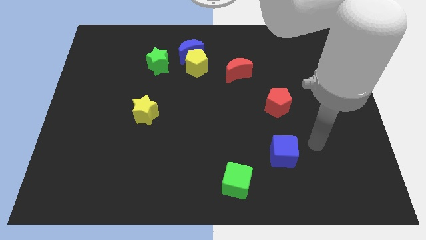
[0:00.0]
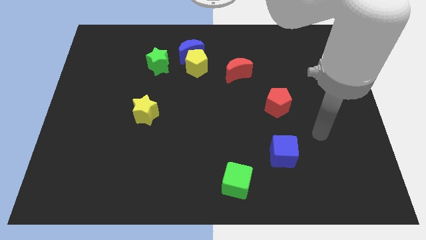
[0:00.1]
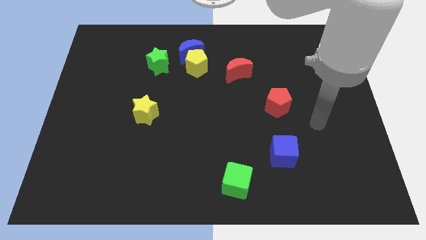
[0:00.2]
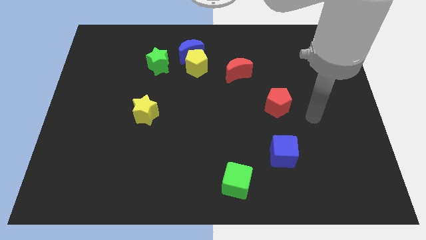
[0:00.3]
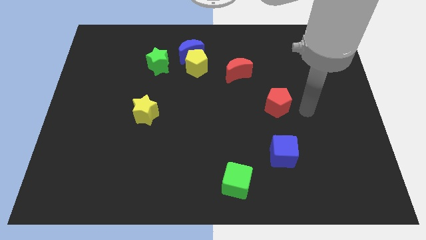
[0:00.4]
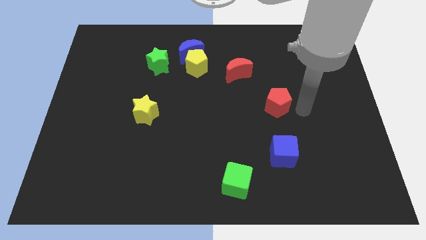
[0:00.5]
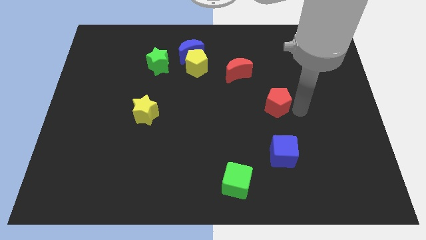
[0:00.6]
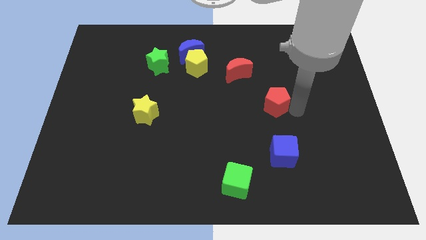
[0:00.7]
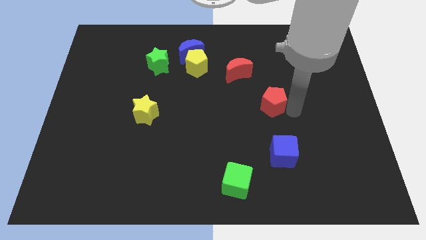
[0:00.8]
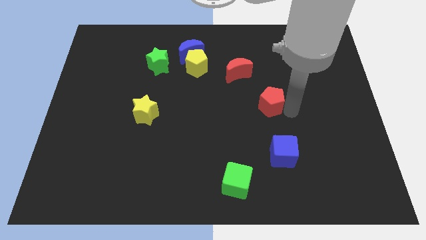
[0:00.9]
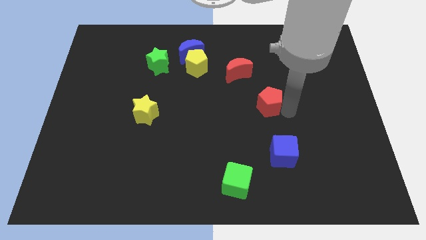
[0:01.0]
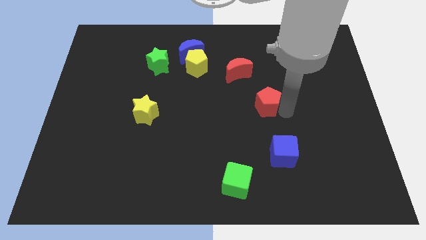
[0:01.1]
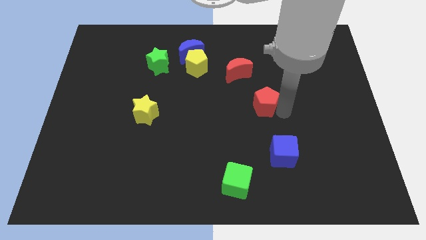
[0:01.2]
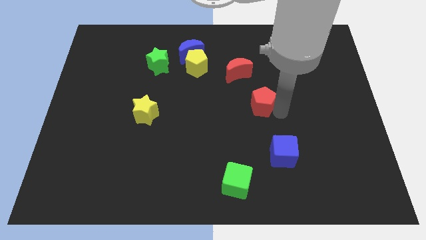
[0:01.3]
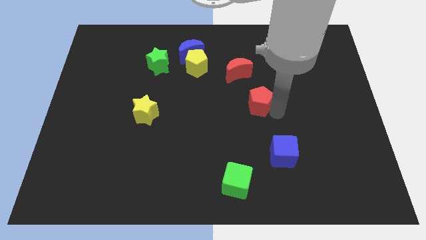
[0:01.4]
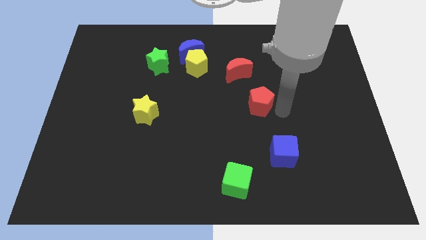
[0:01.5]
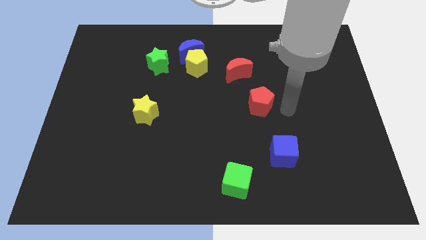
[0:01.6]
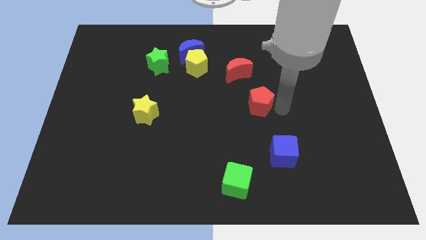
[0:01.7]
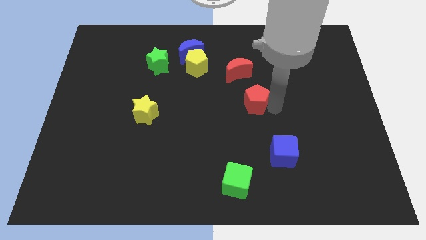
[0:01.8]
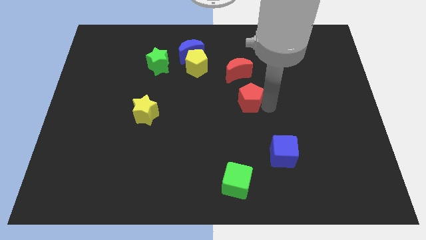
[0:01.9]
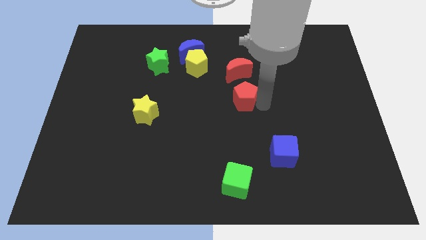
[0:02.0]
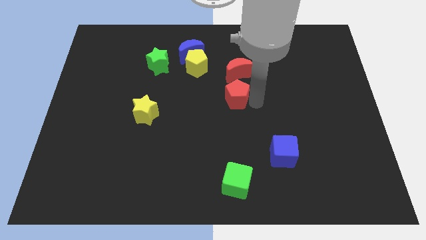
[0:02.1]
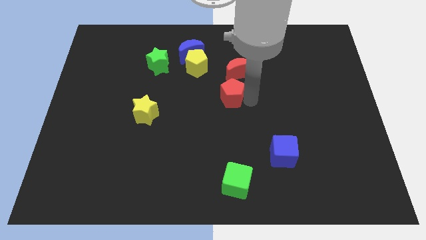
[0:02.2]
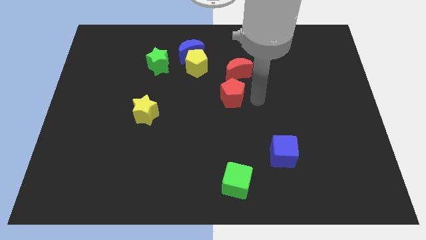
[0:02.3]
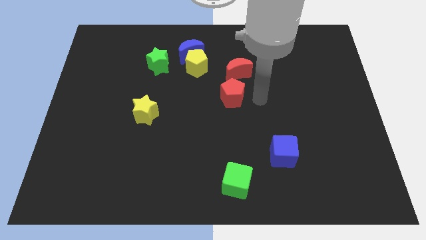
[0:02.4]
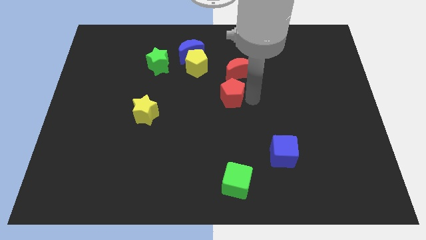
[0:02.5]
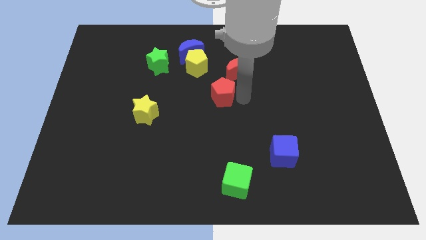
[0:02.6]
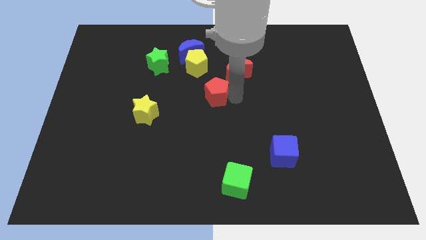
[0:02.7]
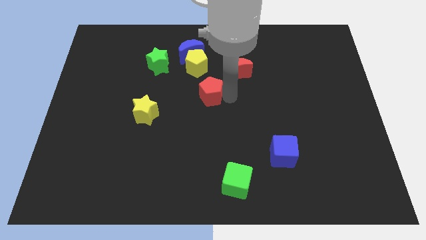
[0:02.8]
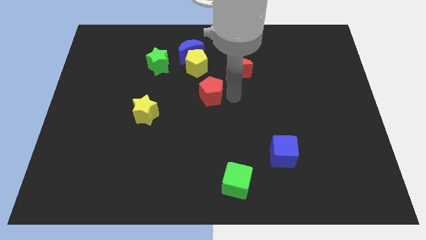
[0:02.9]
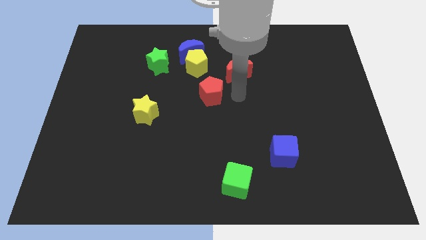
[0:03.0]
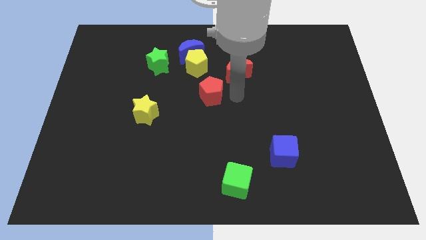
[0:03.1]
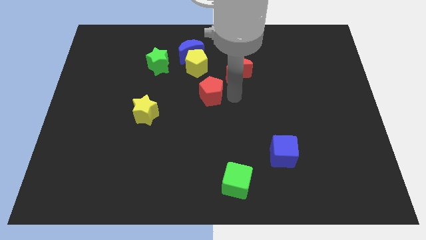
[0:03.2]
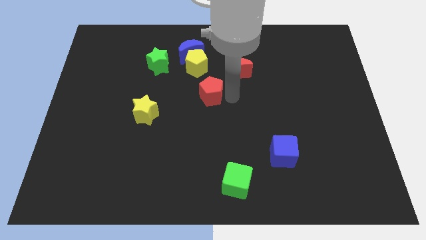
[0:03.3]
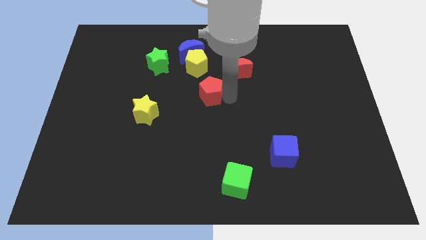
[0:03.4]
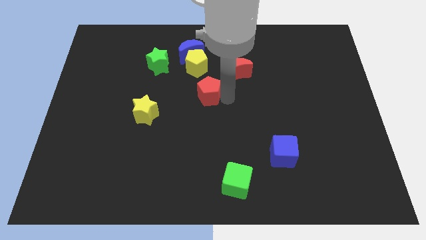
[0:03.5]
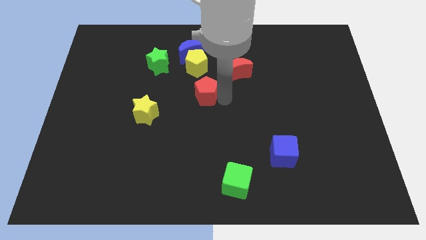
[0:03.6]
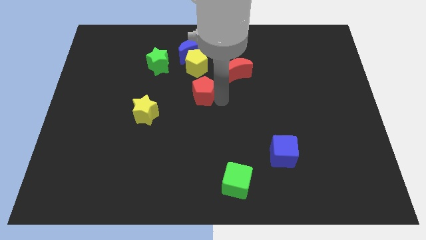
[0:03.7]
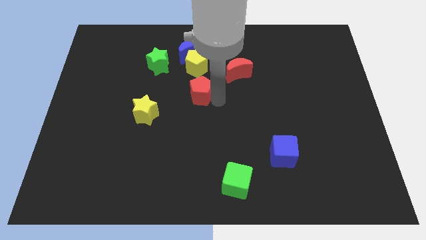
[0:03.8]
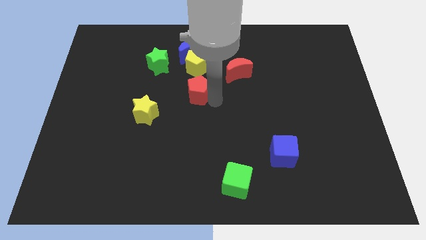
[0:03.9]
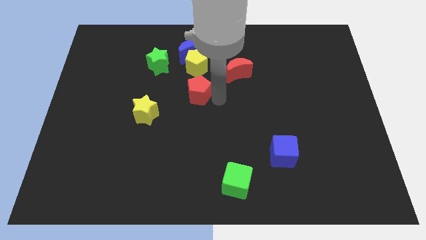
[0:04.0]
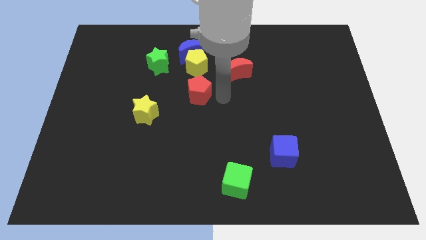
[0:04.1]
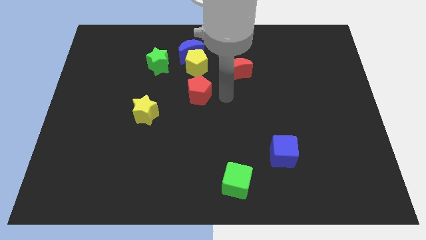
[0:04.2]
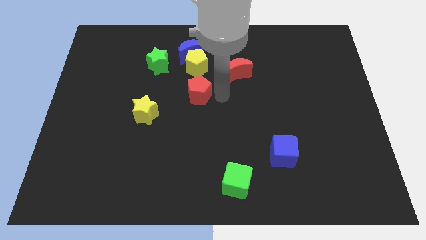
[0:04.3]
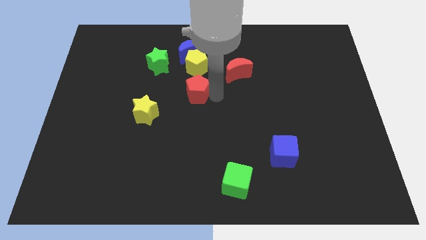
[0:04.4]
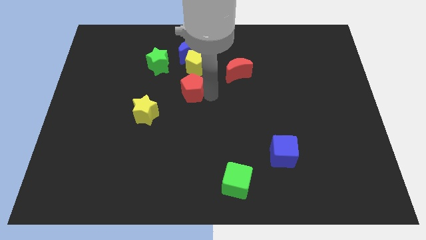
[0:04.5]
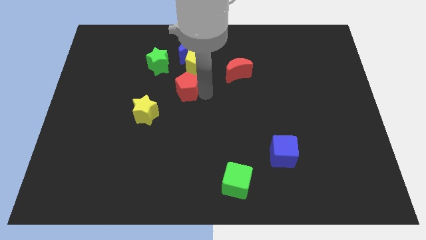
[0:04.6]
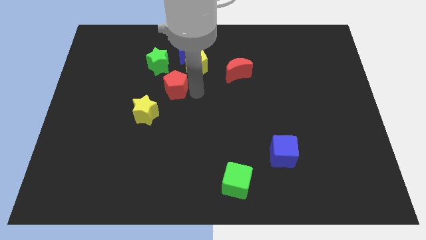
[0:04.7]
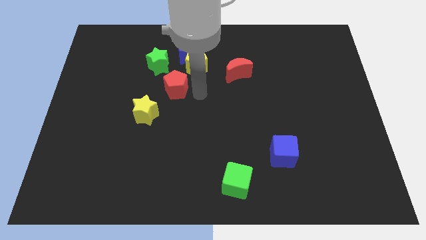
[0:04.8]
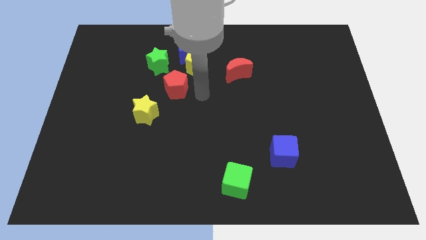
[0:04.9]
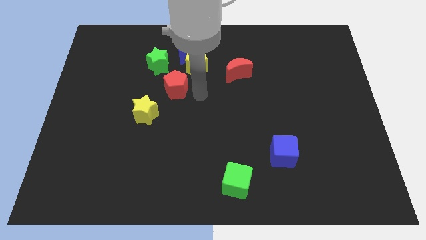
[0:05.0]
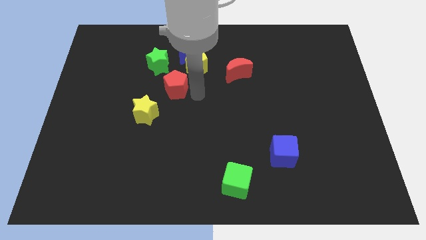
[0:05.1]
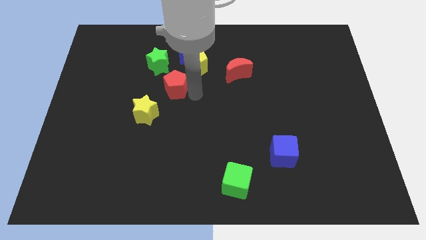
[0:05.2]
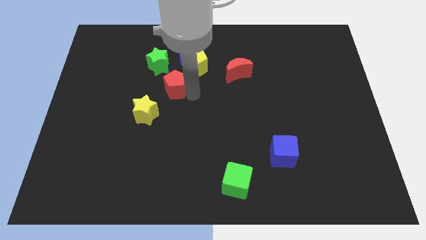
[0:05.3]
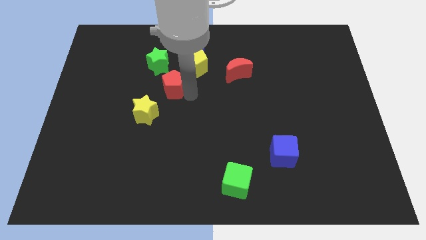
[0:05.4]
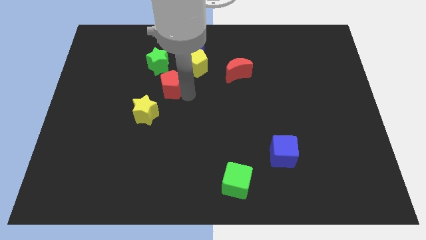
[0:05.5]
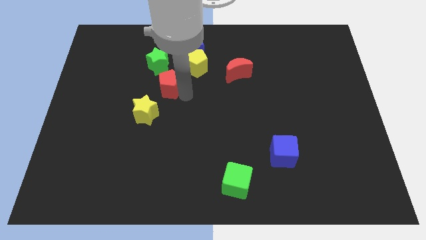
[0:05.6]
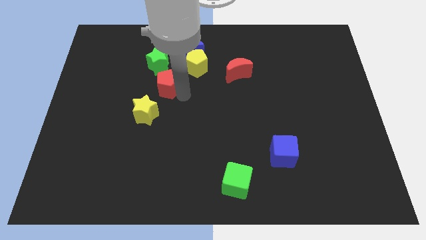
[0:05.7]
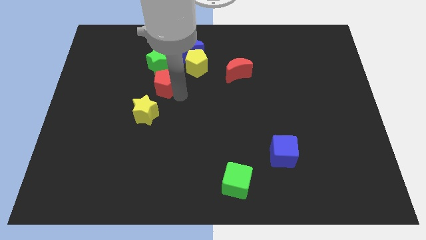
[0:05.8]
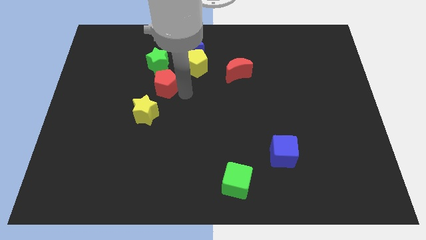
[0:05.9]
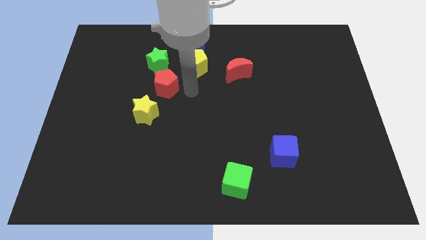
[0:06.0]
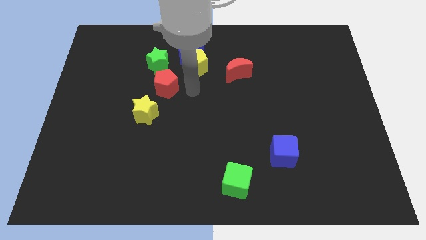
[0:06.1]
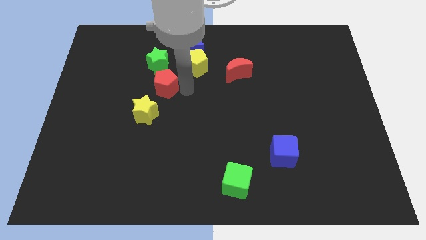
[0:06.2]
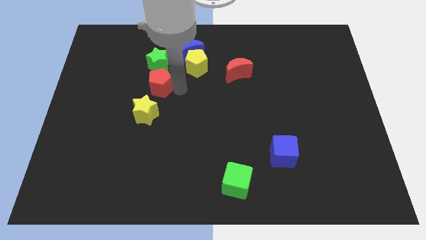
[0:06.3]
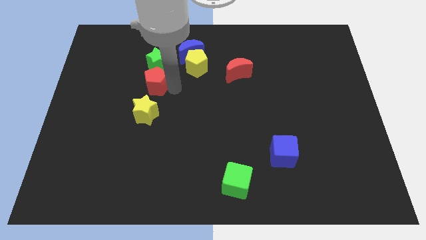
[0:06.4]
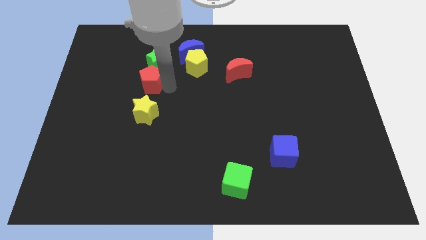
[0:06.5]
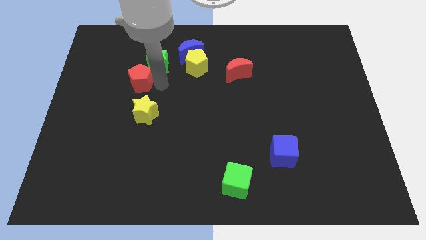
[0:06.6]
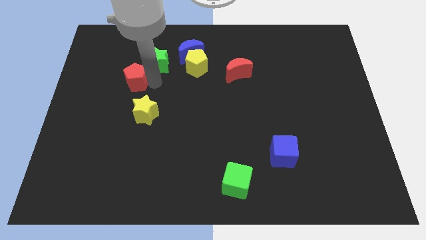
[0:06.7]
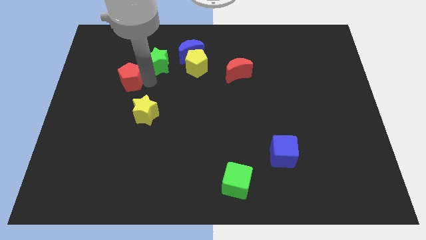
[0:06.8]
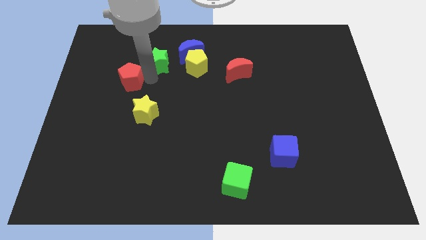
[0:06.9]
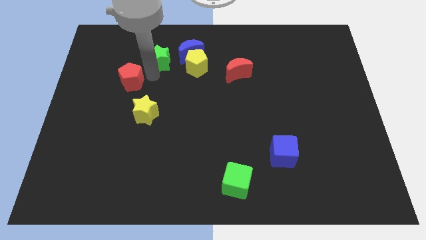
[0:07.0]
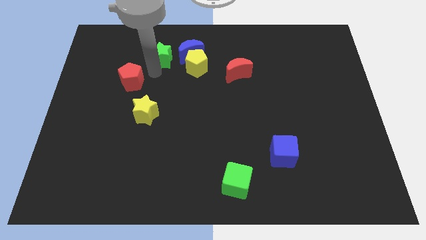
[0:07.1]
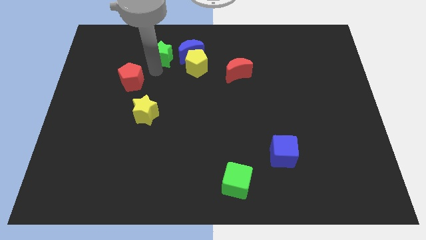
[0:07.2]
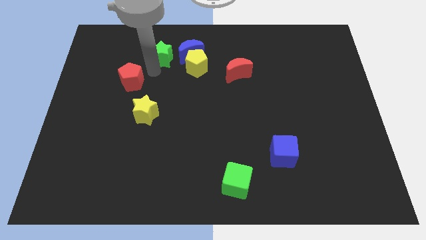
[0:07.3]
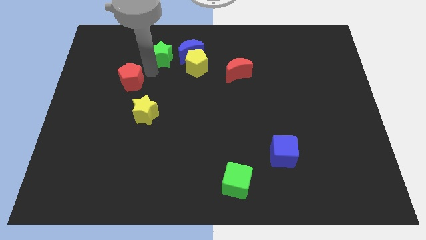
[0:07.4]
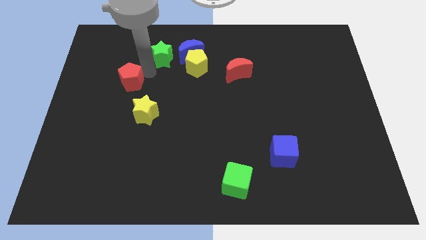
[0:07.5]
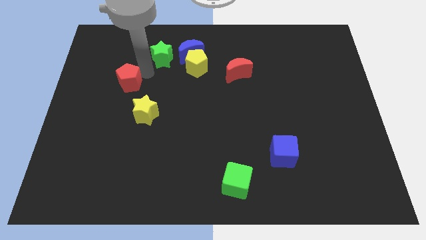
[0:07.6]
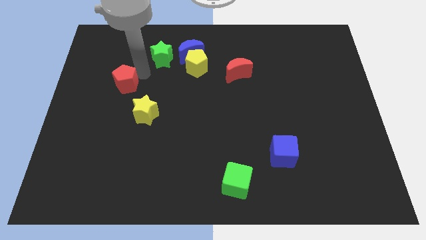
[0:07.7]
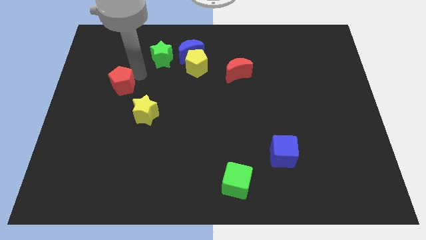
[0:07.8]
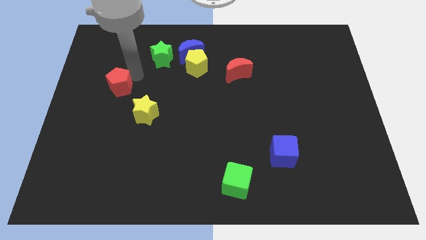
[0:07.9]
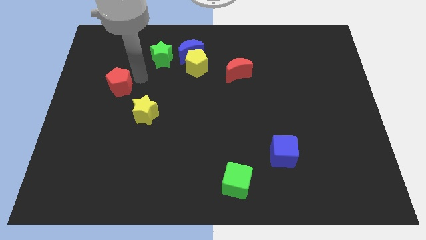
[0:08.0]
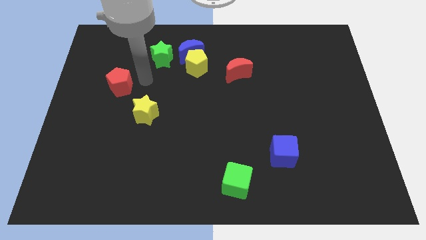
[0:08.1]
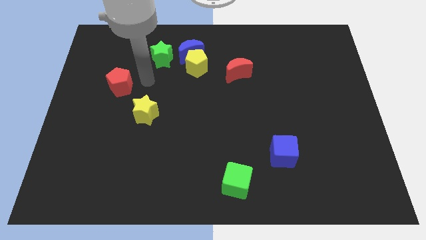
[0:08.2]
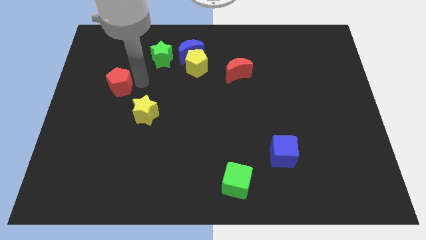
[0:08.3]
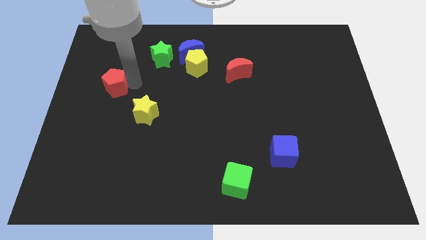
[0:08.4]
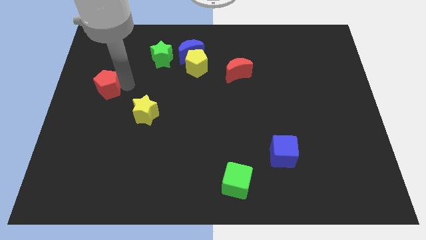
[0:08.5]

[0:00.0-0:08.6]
slide the red pentagon to the center left
